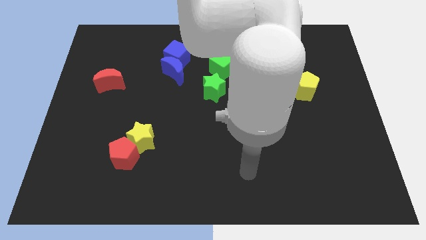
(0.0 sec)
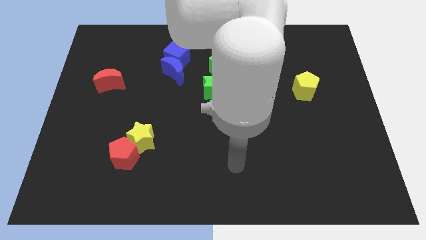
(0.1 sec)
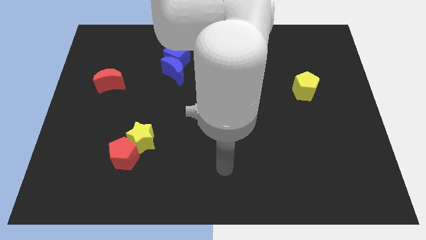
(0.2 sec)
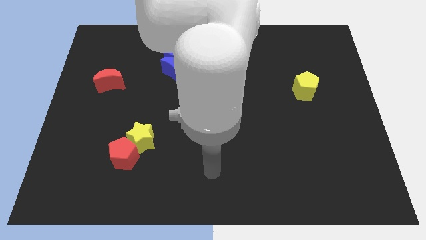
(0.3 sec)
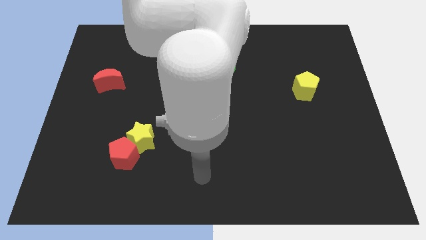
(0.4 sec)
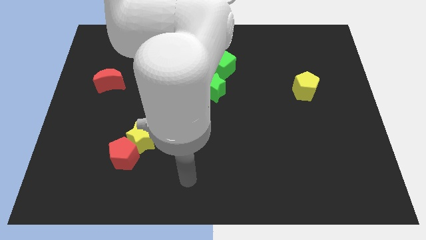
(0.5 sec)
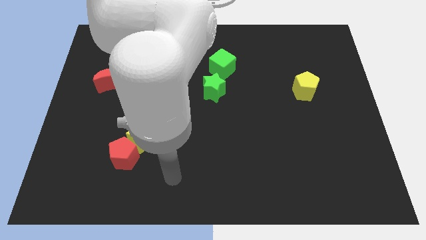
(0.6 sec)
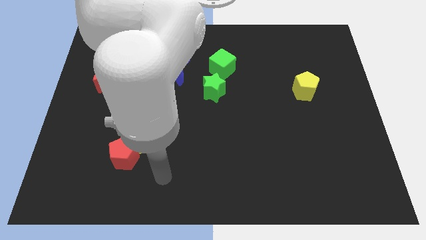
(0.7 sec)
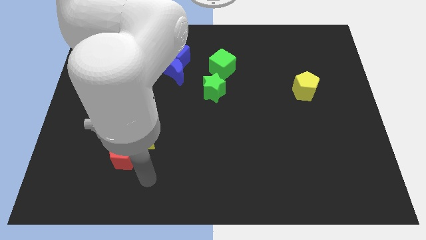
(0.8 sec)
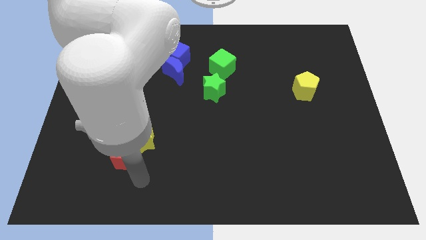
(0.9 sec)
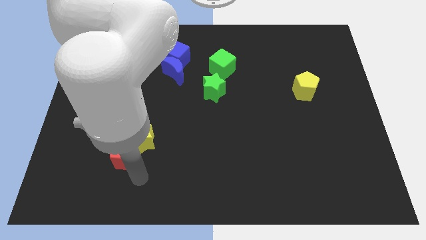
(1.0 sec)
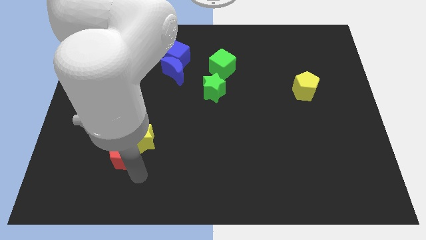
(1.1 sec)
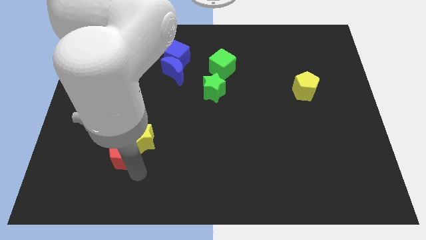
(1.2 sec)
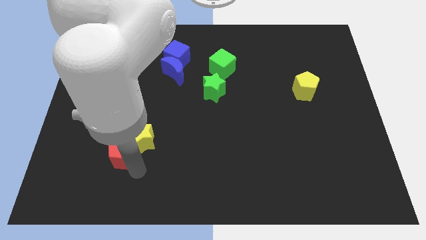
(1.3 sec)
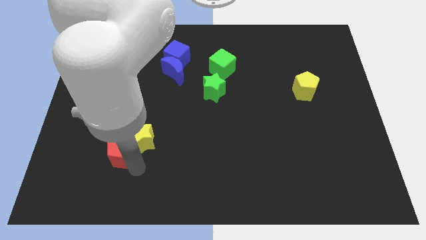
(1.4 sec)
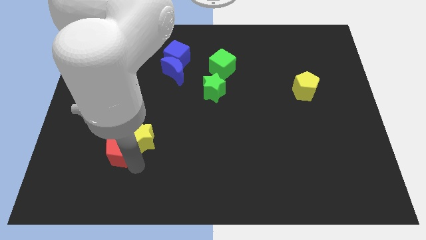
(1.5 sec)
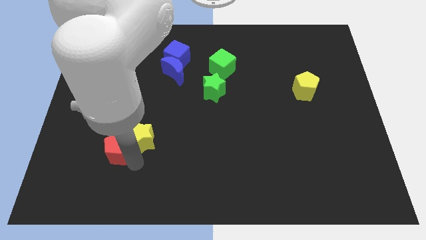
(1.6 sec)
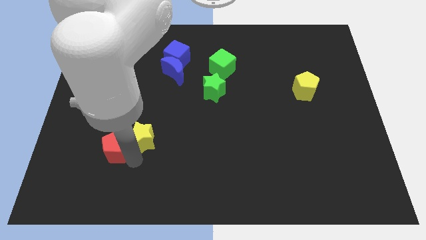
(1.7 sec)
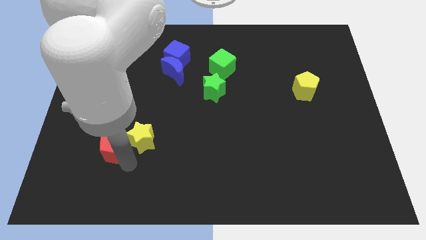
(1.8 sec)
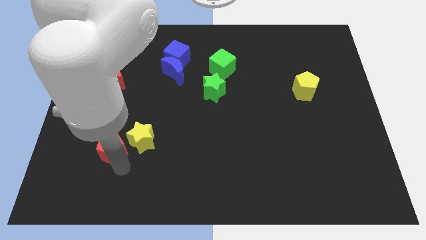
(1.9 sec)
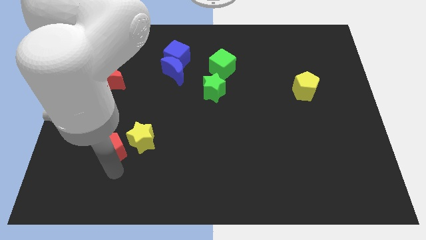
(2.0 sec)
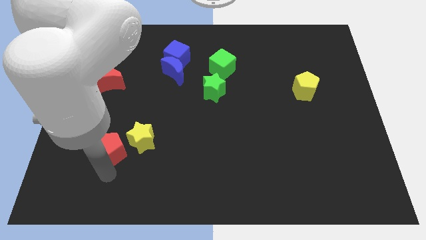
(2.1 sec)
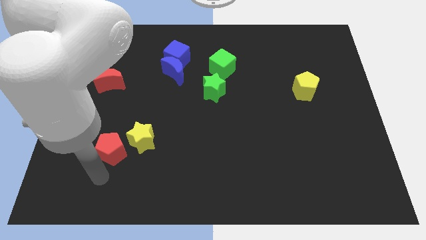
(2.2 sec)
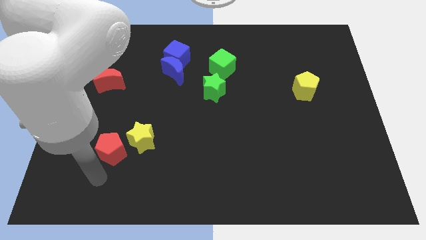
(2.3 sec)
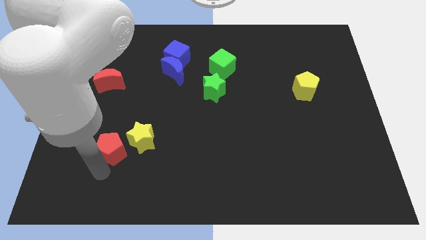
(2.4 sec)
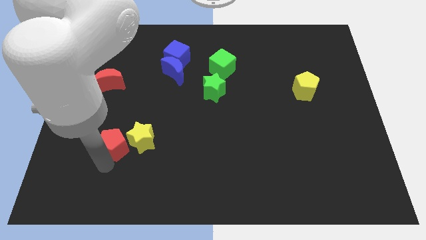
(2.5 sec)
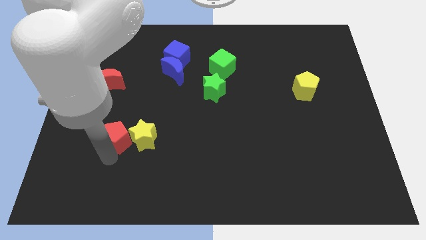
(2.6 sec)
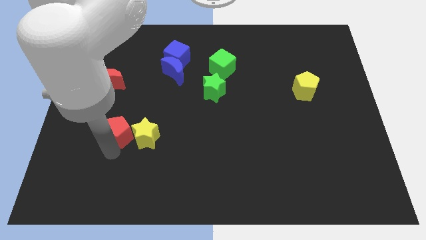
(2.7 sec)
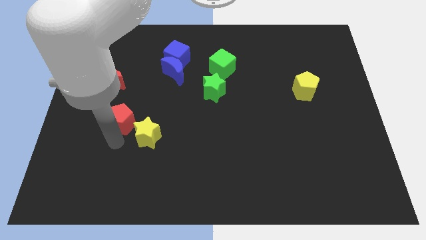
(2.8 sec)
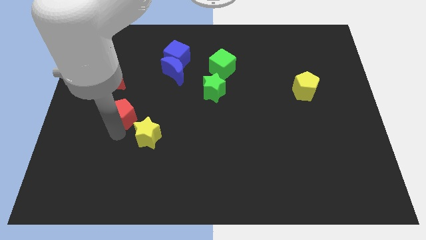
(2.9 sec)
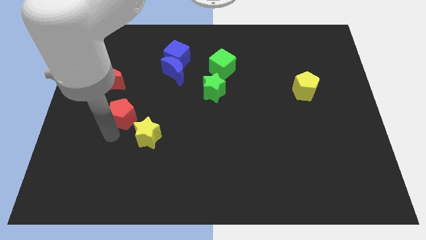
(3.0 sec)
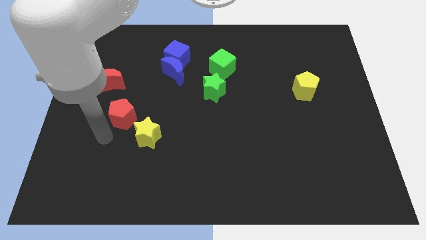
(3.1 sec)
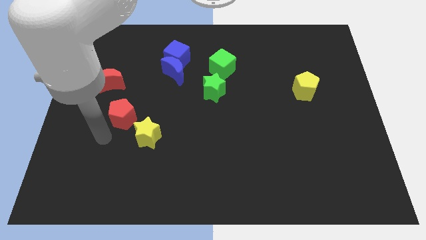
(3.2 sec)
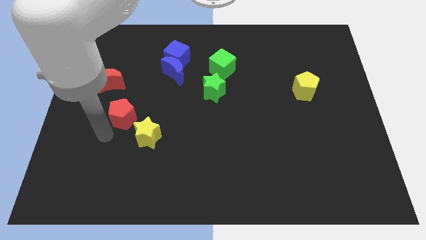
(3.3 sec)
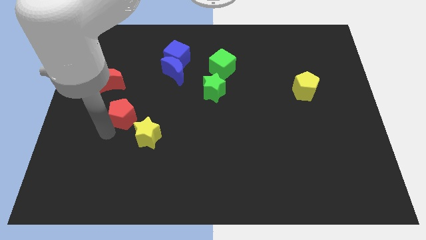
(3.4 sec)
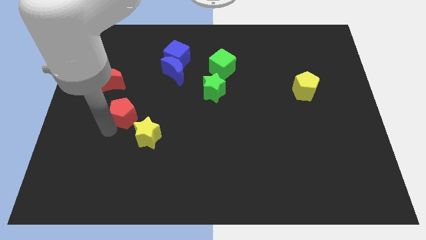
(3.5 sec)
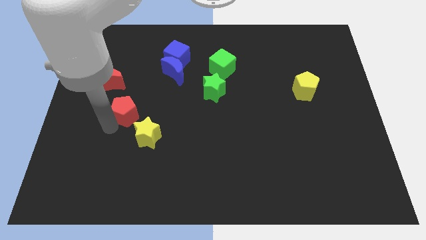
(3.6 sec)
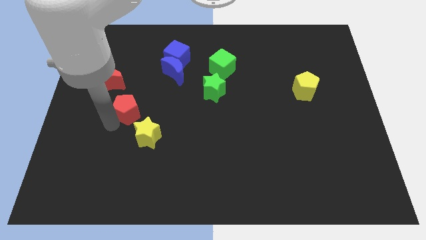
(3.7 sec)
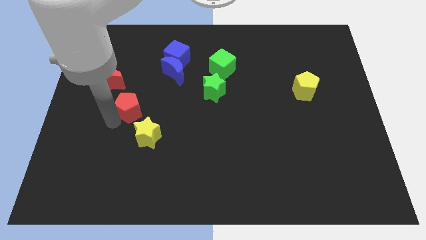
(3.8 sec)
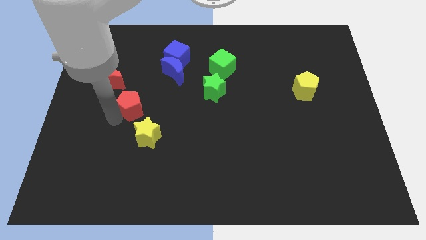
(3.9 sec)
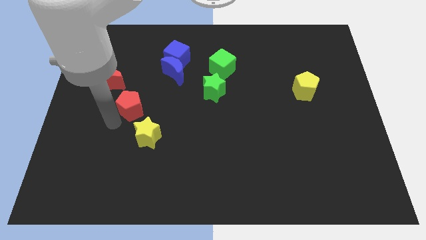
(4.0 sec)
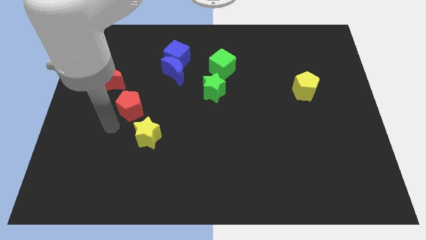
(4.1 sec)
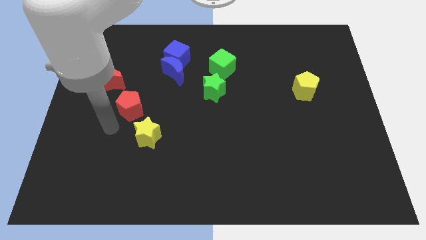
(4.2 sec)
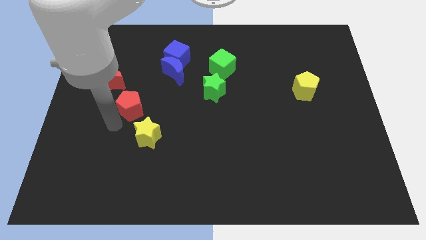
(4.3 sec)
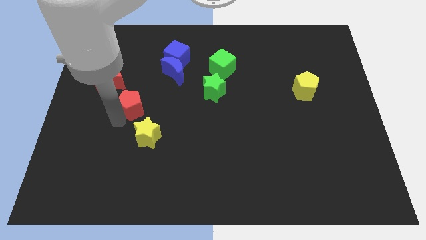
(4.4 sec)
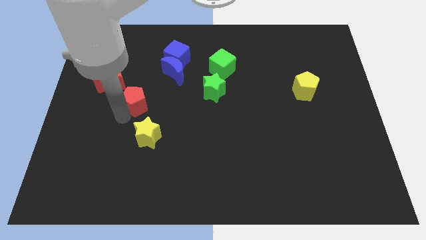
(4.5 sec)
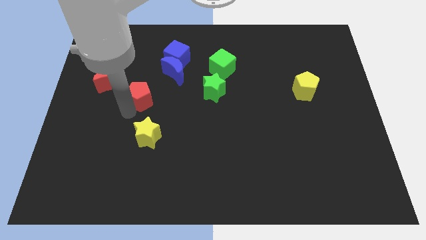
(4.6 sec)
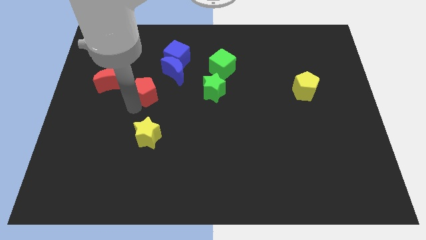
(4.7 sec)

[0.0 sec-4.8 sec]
put the red pentagon just right of the red moon

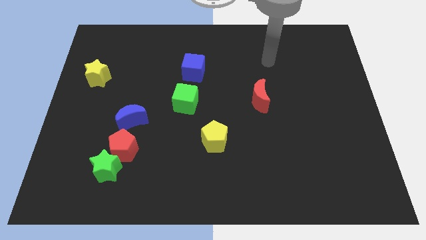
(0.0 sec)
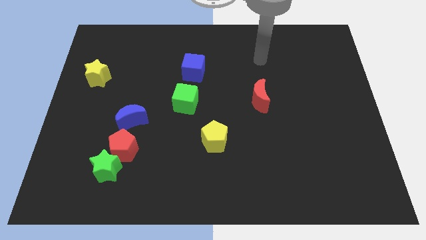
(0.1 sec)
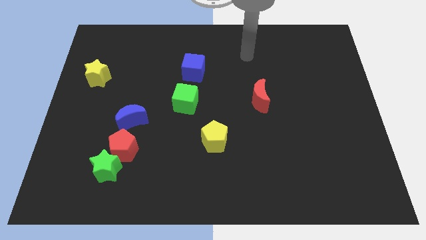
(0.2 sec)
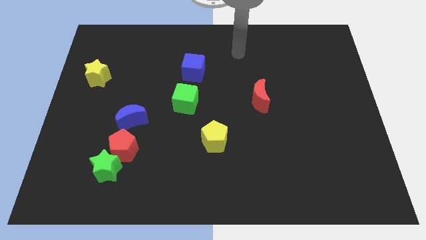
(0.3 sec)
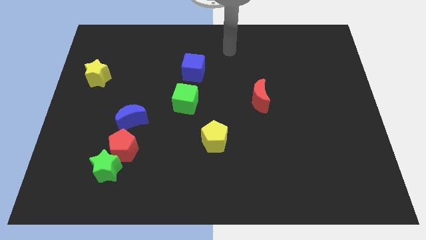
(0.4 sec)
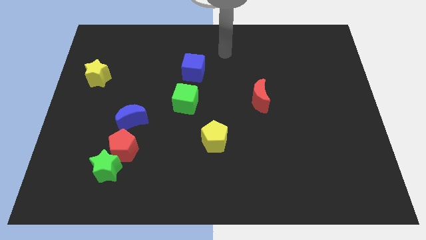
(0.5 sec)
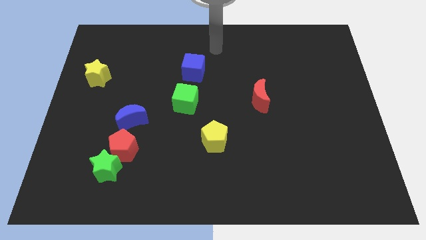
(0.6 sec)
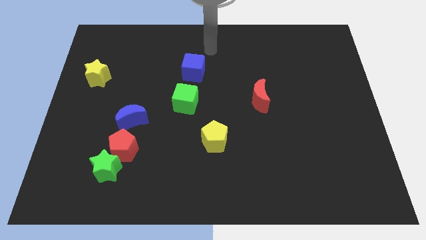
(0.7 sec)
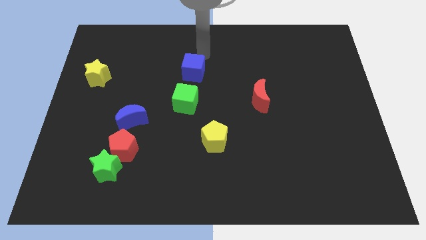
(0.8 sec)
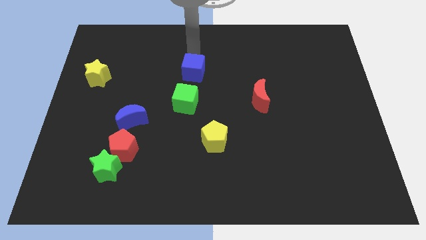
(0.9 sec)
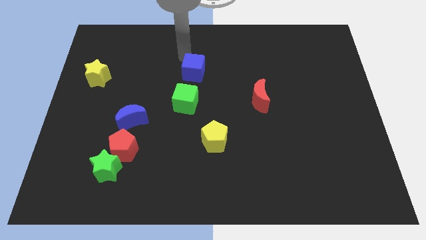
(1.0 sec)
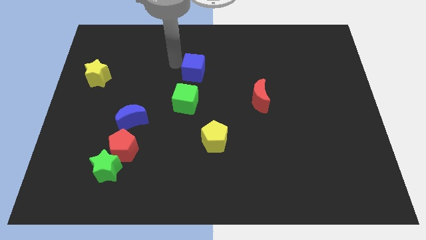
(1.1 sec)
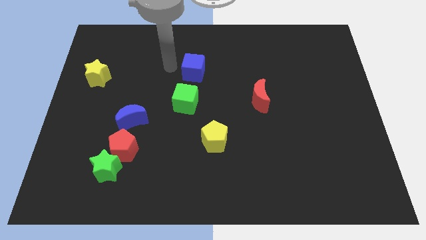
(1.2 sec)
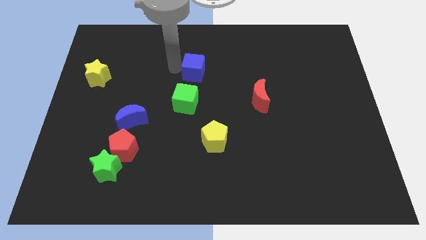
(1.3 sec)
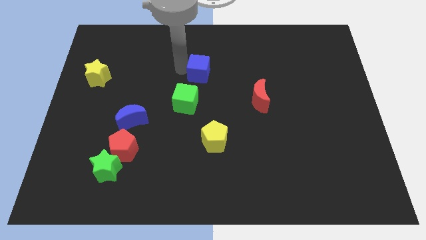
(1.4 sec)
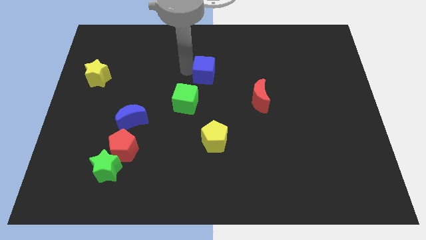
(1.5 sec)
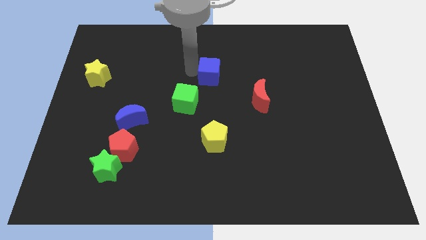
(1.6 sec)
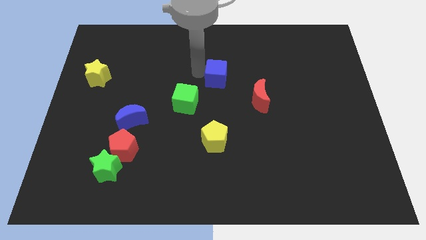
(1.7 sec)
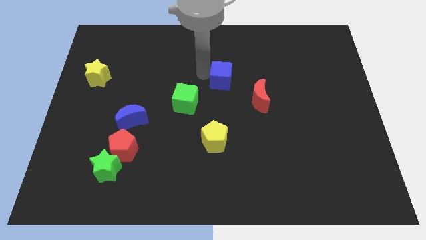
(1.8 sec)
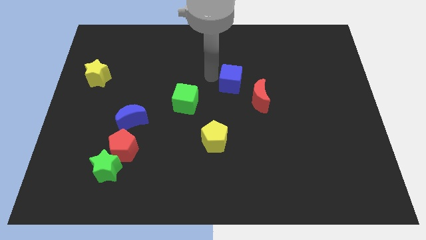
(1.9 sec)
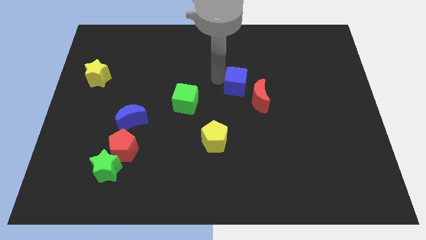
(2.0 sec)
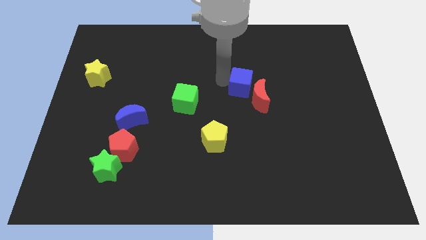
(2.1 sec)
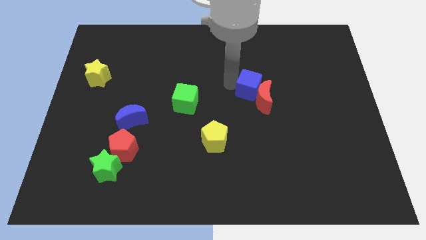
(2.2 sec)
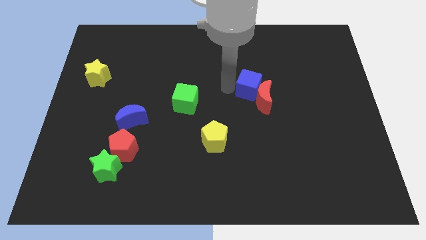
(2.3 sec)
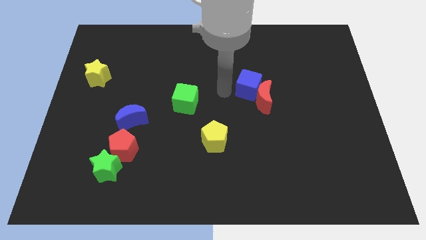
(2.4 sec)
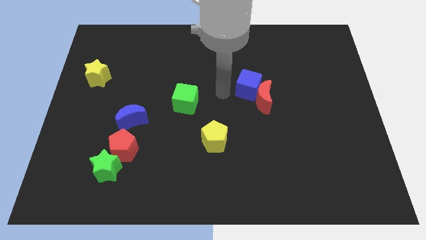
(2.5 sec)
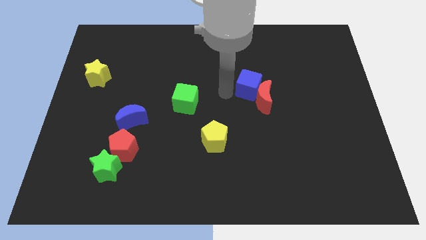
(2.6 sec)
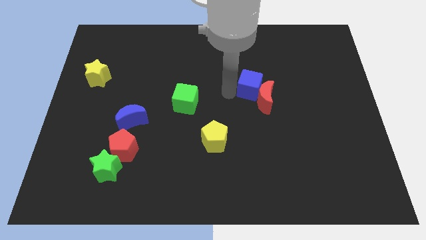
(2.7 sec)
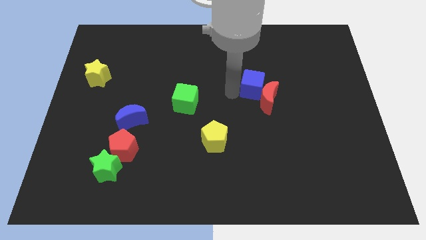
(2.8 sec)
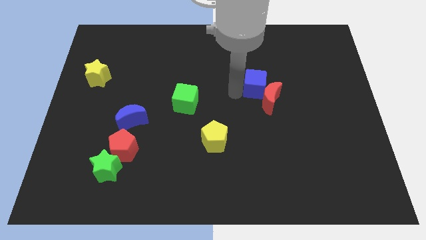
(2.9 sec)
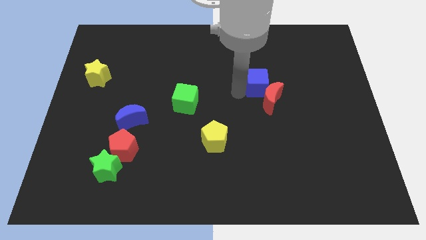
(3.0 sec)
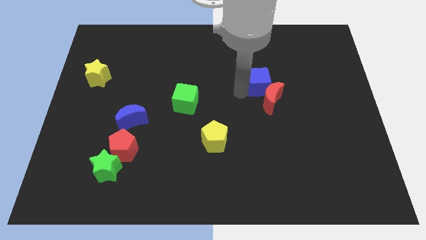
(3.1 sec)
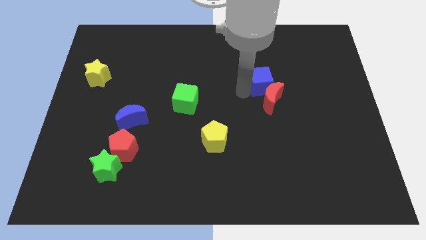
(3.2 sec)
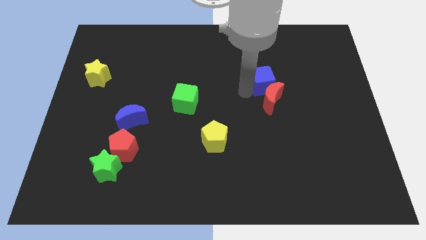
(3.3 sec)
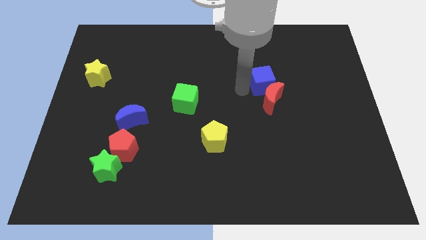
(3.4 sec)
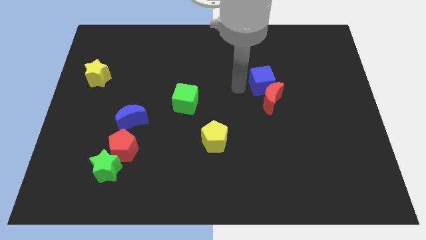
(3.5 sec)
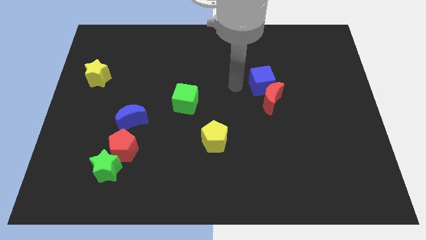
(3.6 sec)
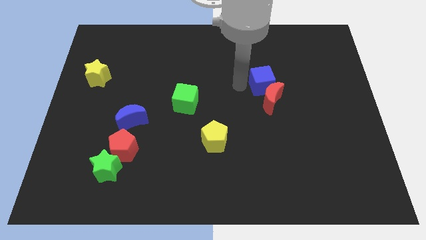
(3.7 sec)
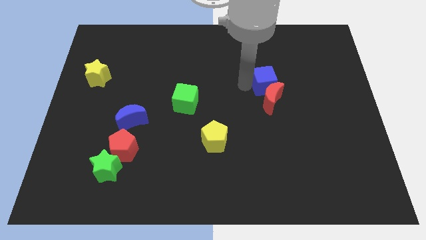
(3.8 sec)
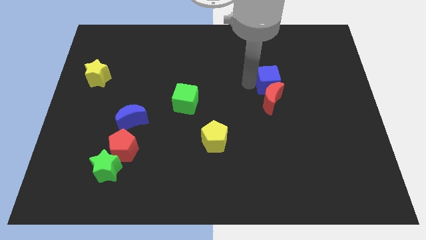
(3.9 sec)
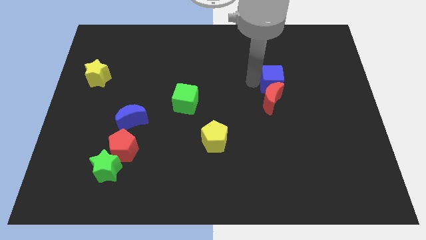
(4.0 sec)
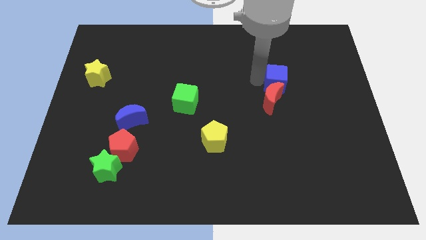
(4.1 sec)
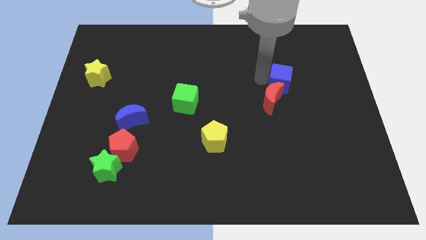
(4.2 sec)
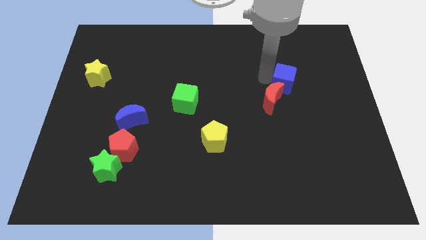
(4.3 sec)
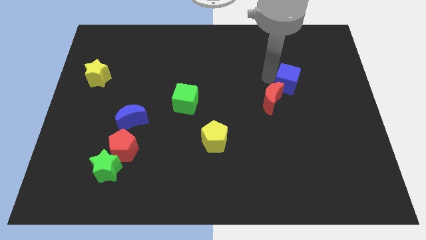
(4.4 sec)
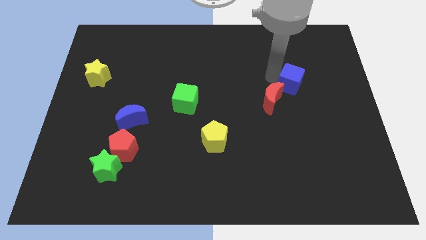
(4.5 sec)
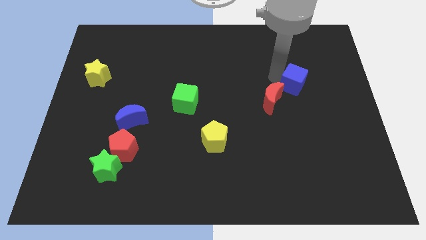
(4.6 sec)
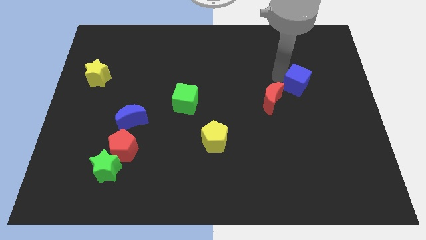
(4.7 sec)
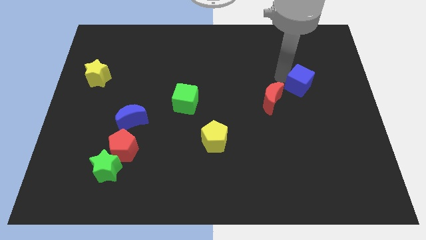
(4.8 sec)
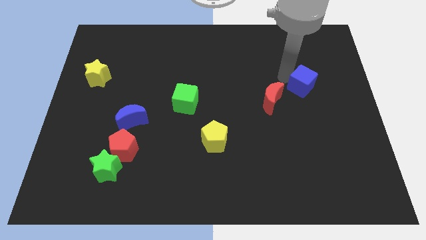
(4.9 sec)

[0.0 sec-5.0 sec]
slide the blue cube right of the red moon
